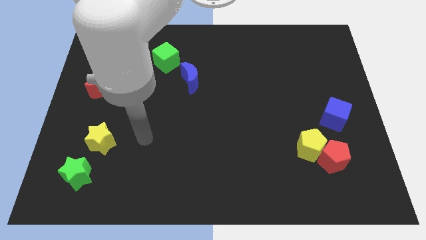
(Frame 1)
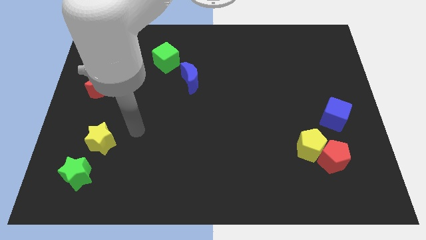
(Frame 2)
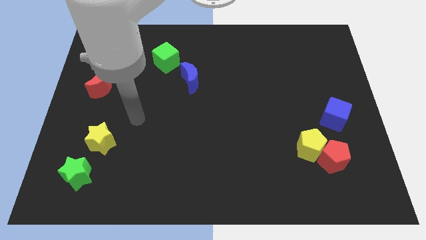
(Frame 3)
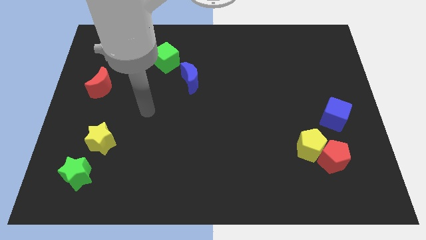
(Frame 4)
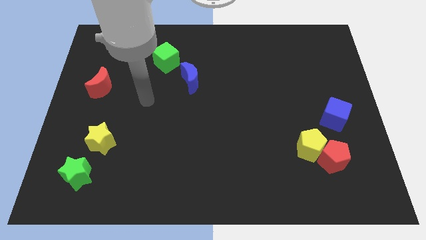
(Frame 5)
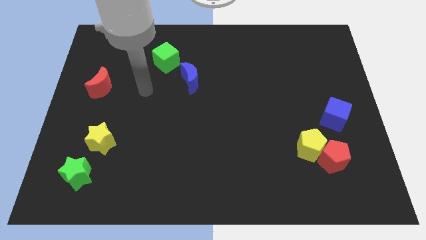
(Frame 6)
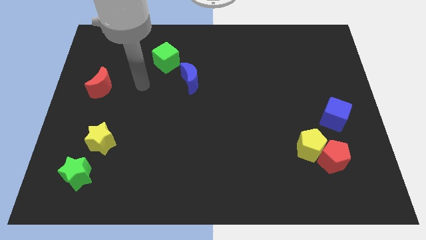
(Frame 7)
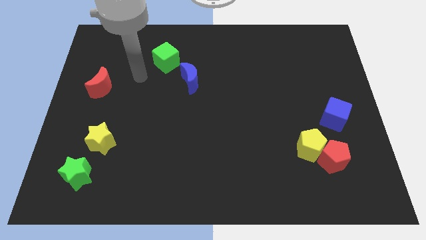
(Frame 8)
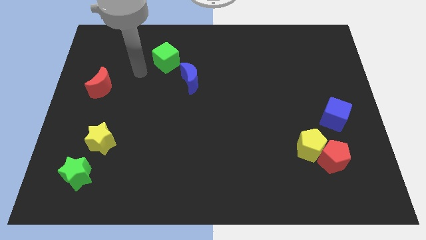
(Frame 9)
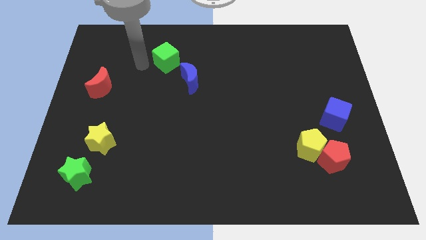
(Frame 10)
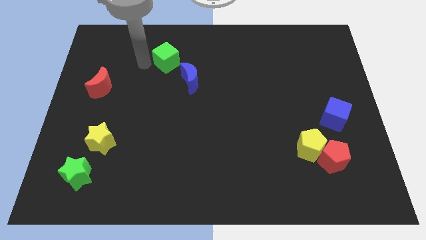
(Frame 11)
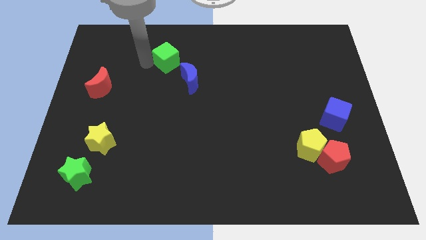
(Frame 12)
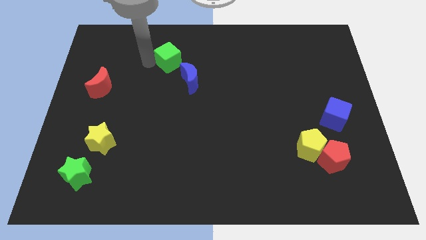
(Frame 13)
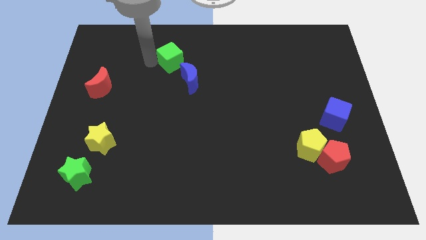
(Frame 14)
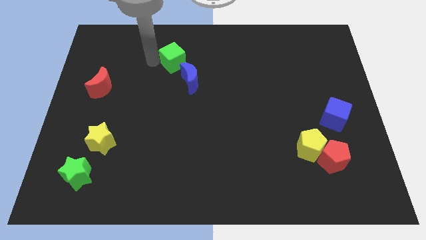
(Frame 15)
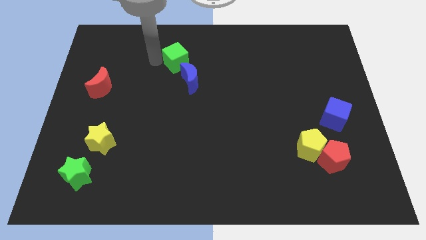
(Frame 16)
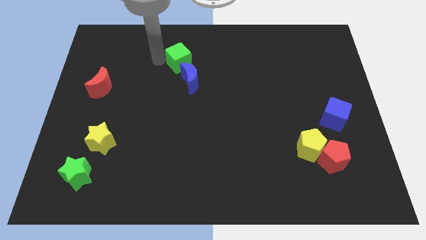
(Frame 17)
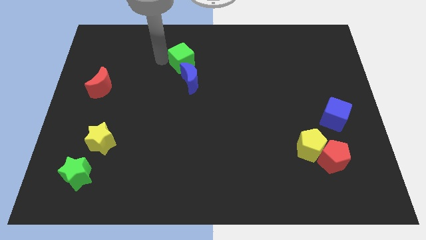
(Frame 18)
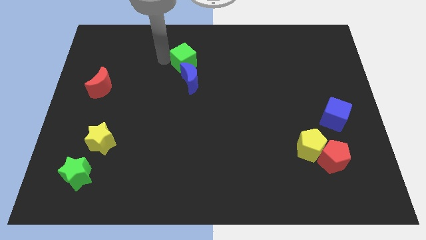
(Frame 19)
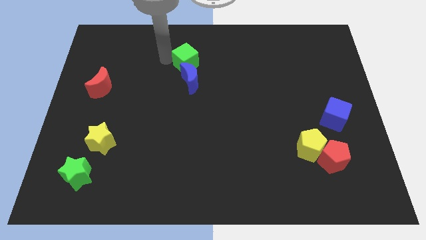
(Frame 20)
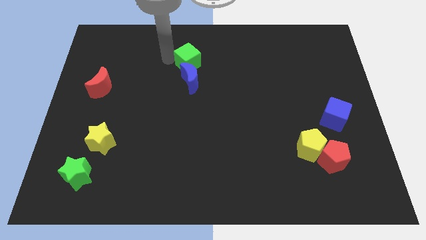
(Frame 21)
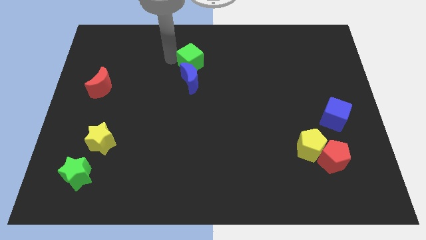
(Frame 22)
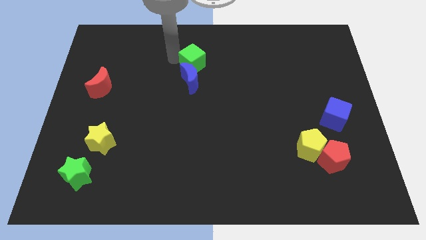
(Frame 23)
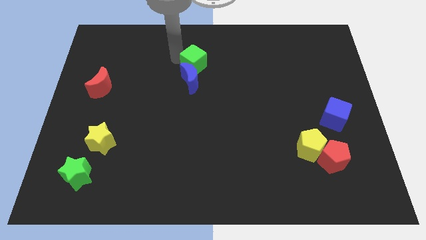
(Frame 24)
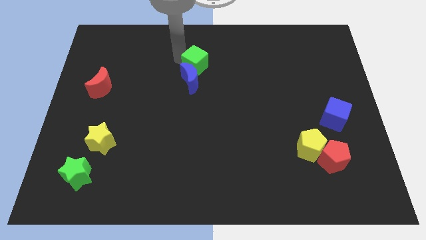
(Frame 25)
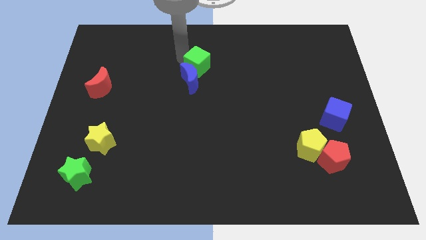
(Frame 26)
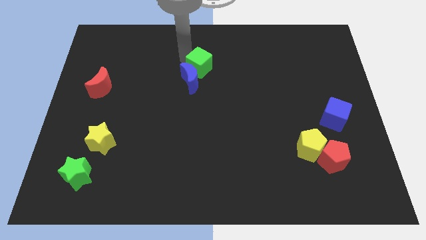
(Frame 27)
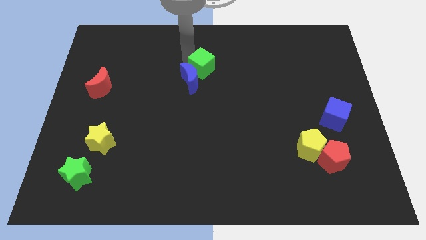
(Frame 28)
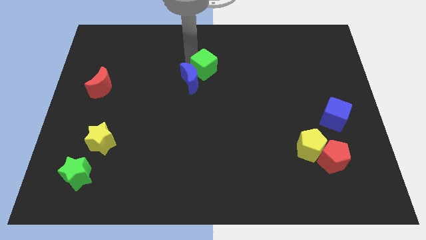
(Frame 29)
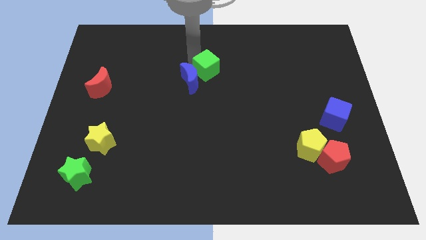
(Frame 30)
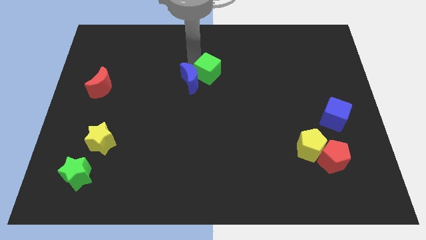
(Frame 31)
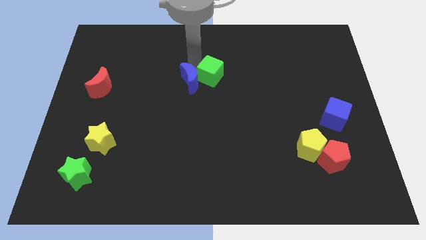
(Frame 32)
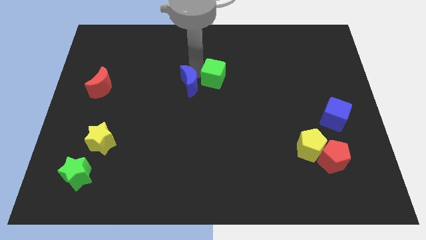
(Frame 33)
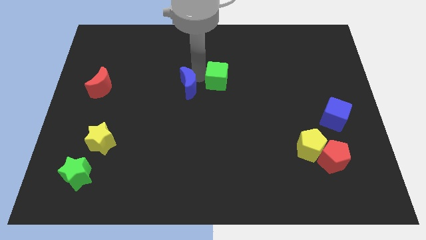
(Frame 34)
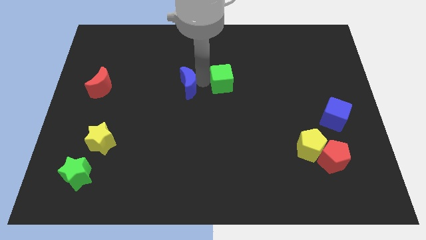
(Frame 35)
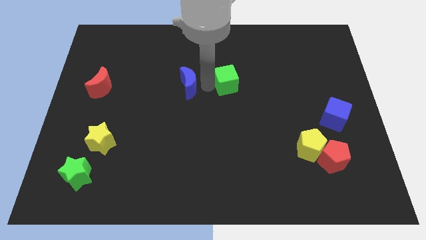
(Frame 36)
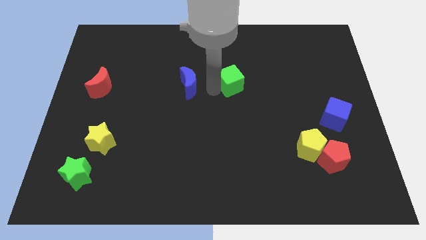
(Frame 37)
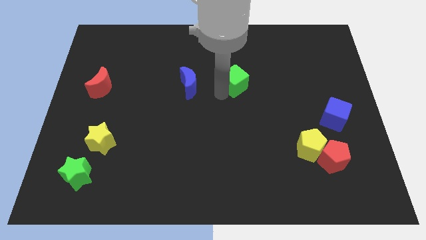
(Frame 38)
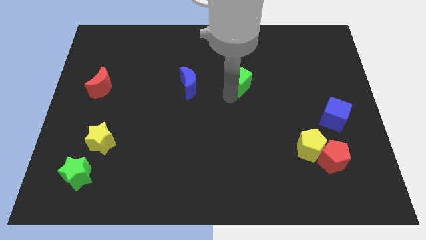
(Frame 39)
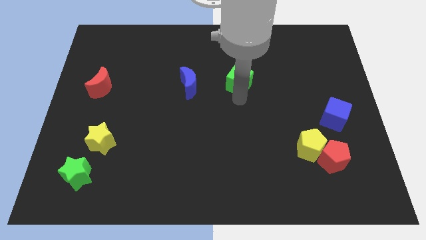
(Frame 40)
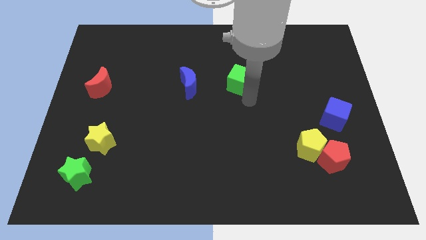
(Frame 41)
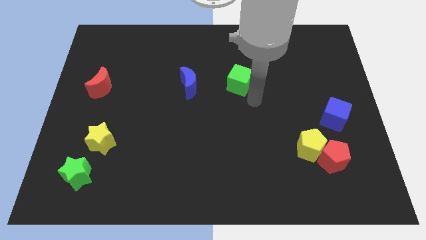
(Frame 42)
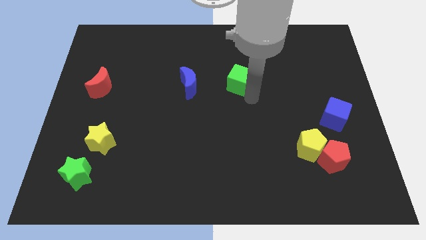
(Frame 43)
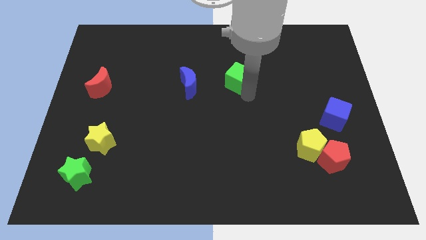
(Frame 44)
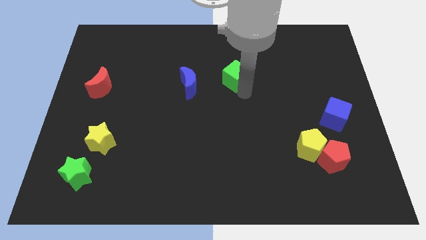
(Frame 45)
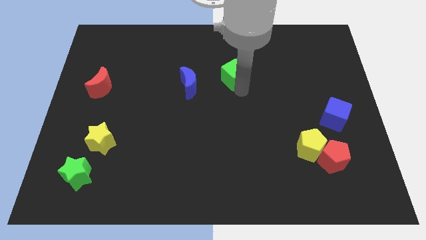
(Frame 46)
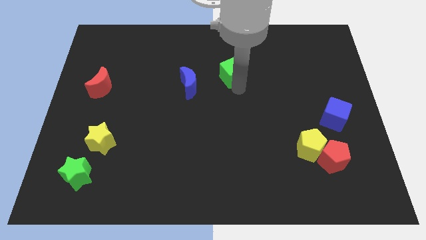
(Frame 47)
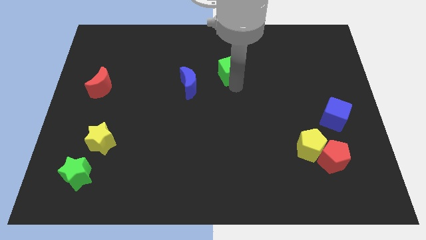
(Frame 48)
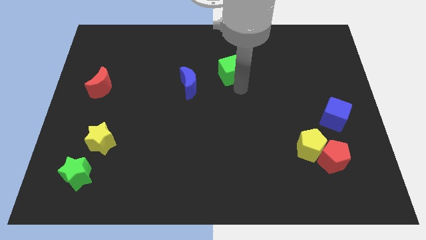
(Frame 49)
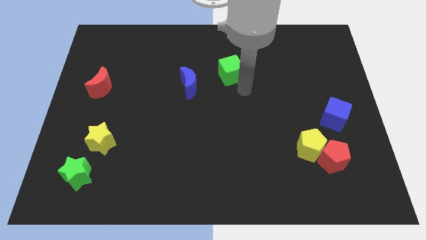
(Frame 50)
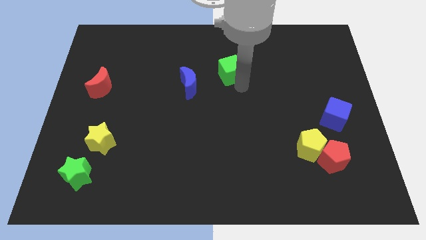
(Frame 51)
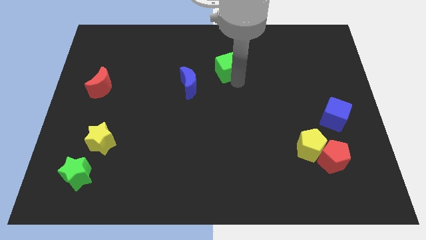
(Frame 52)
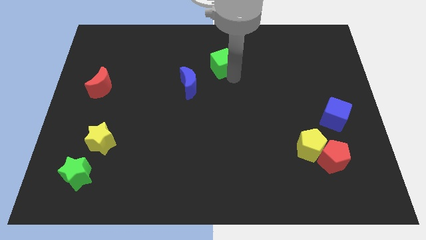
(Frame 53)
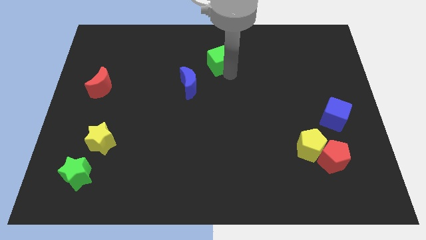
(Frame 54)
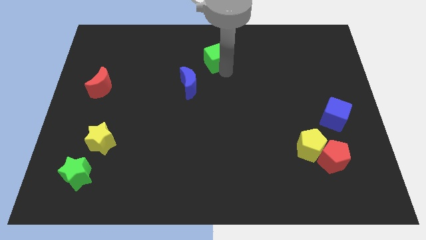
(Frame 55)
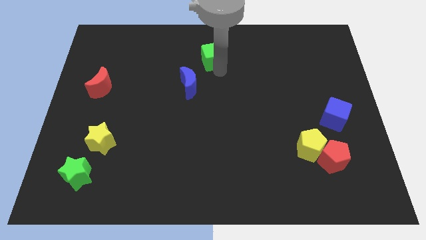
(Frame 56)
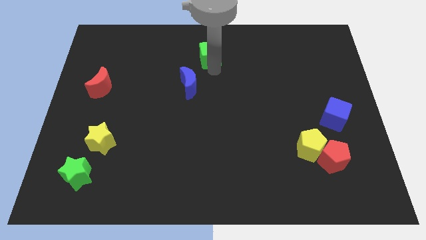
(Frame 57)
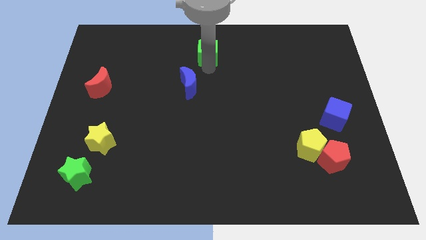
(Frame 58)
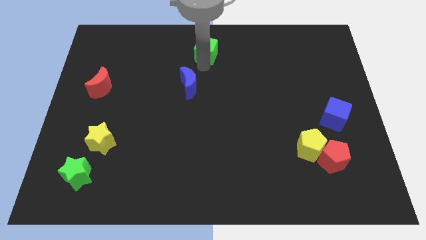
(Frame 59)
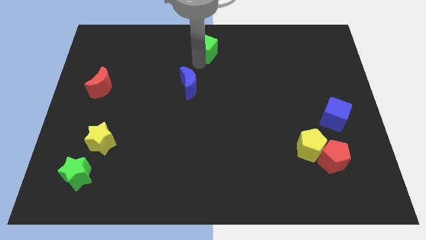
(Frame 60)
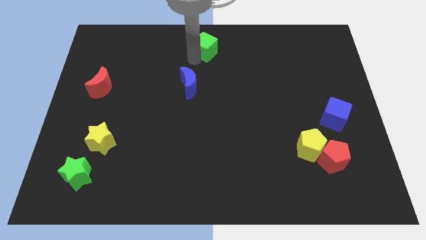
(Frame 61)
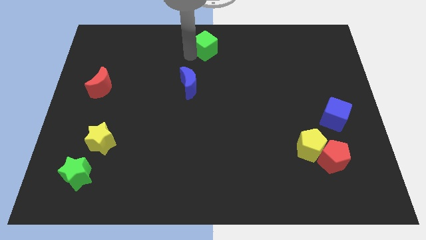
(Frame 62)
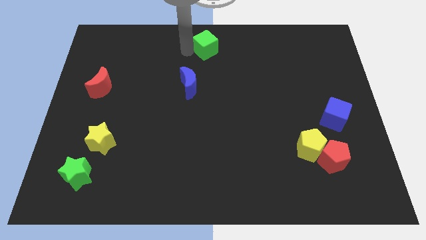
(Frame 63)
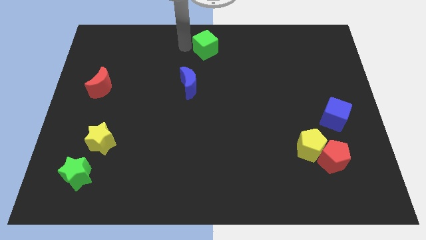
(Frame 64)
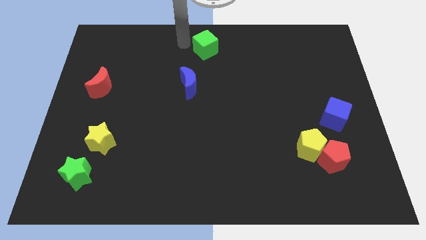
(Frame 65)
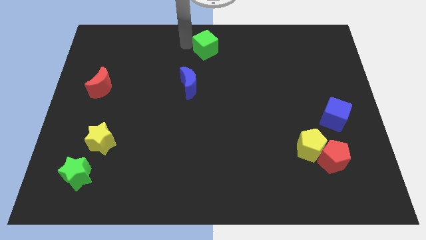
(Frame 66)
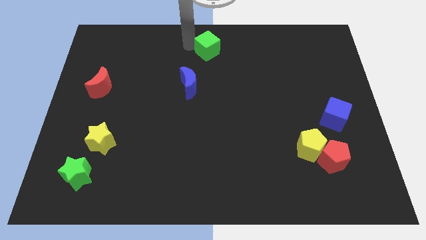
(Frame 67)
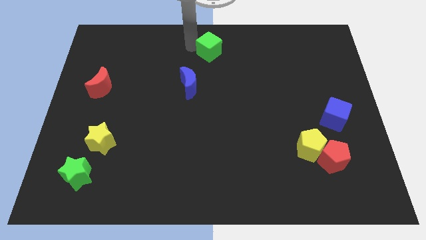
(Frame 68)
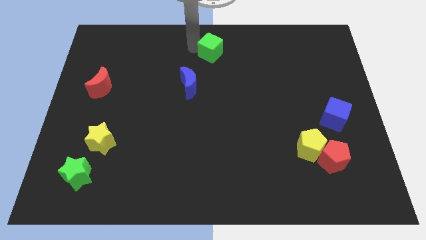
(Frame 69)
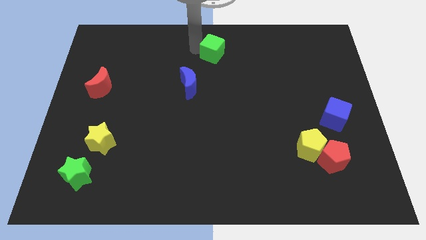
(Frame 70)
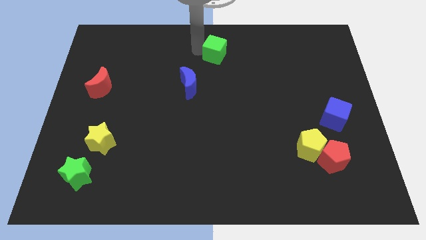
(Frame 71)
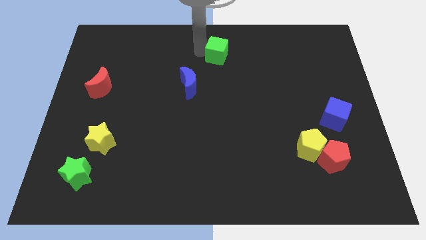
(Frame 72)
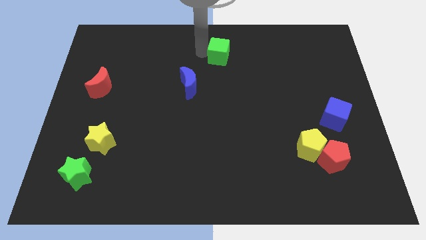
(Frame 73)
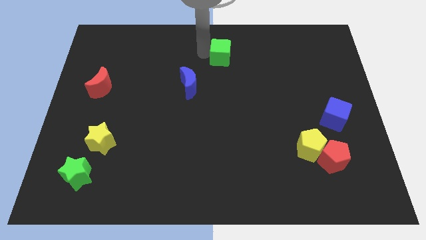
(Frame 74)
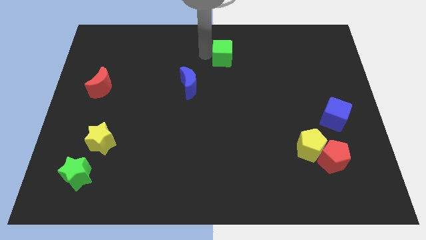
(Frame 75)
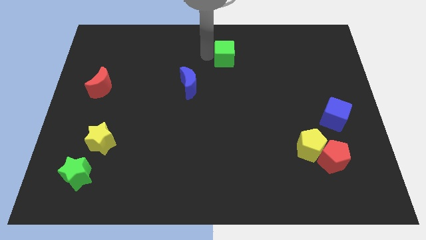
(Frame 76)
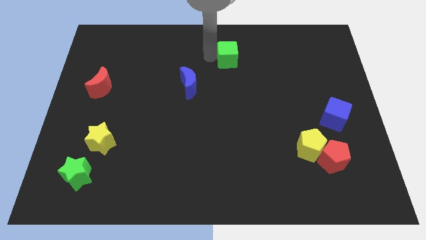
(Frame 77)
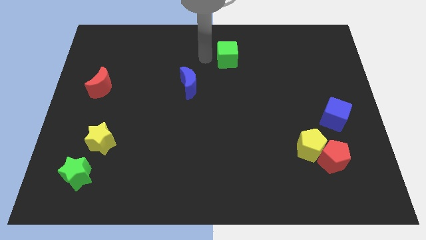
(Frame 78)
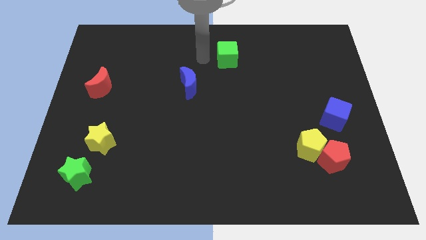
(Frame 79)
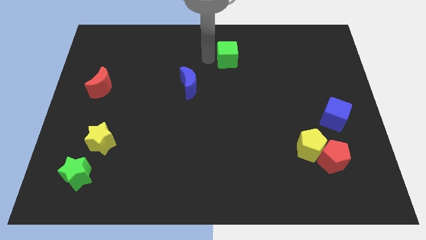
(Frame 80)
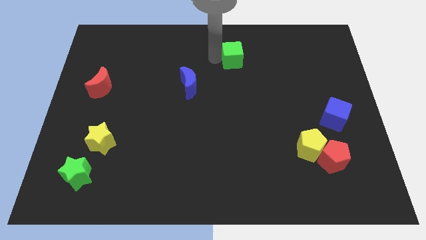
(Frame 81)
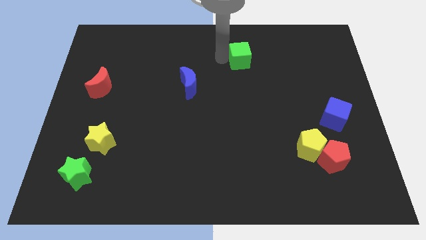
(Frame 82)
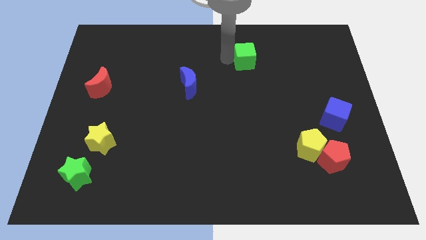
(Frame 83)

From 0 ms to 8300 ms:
push the green cube to the right
